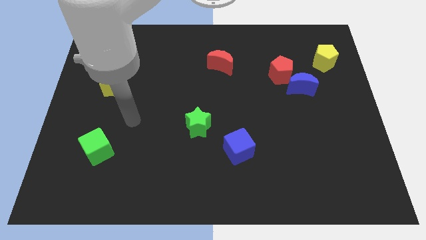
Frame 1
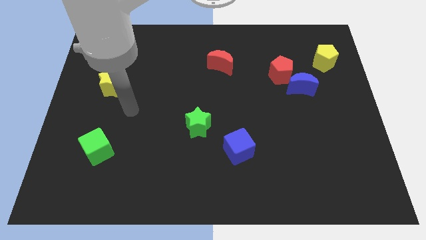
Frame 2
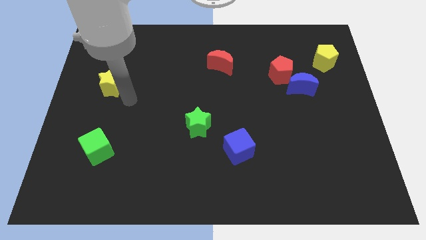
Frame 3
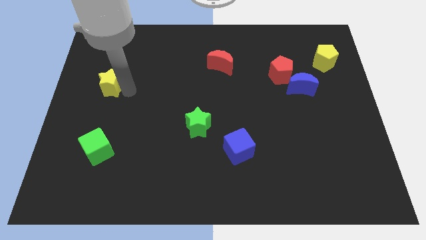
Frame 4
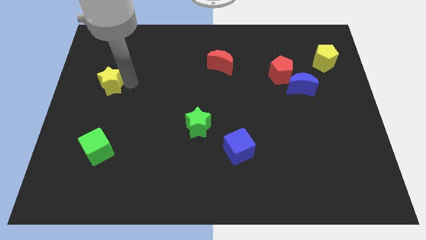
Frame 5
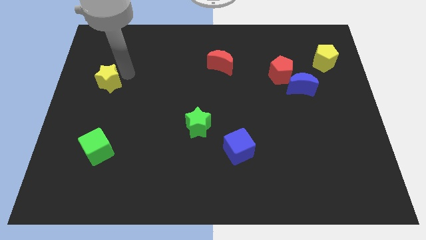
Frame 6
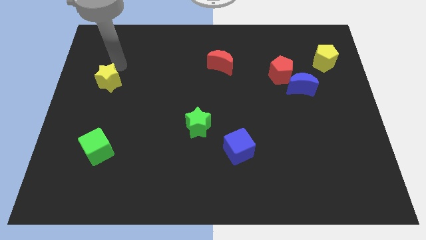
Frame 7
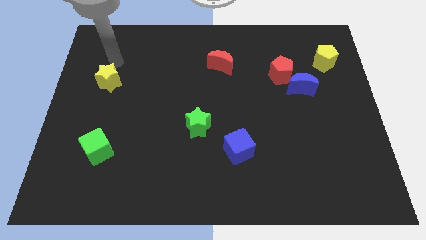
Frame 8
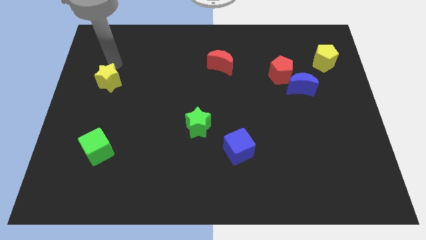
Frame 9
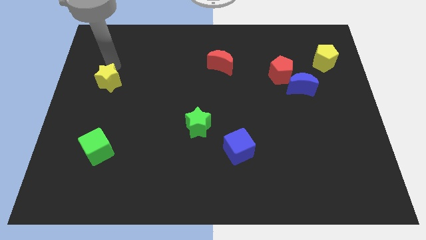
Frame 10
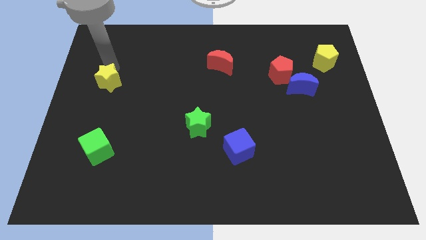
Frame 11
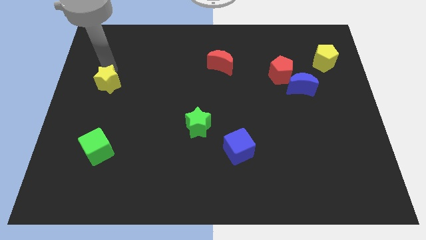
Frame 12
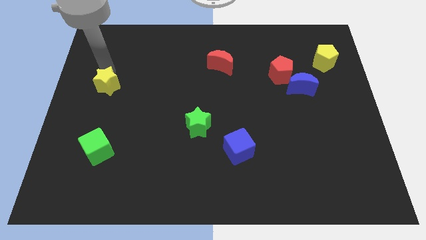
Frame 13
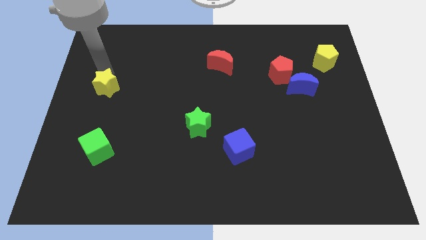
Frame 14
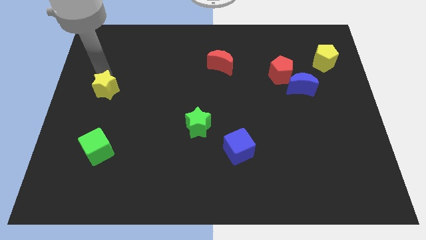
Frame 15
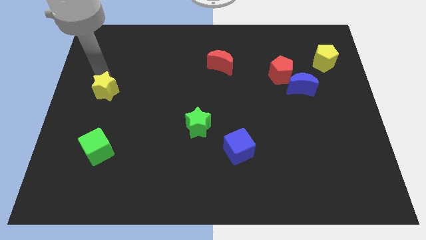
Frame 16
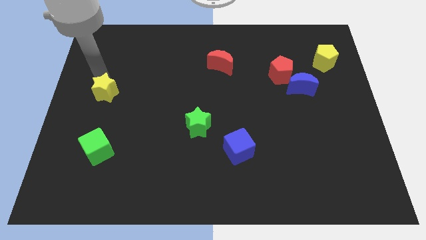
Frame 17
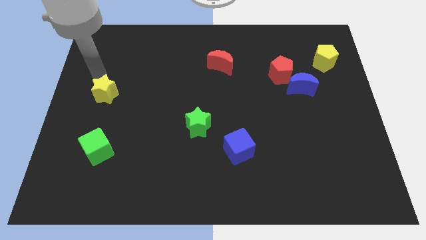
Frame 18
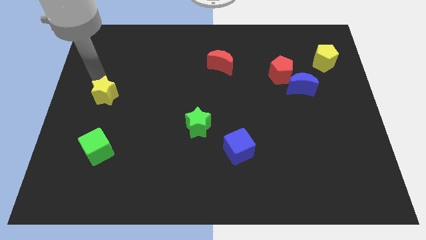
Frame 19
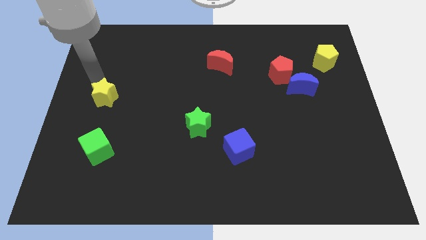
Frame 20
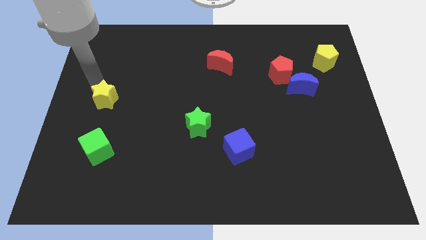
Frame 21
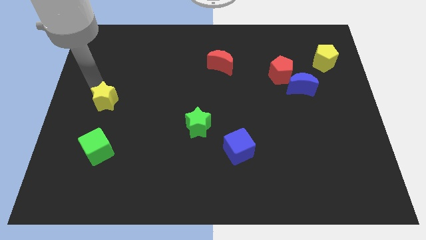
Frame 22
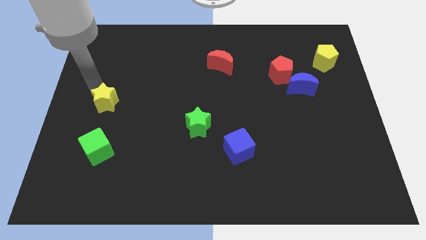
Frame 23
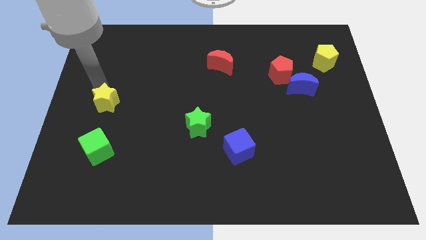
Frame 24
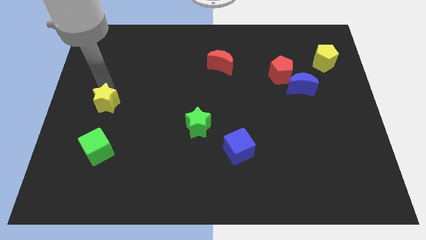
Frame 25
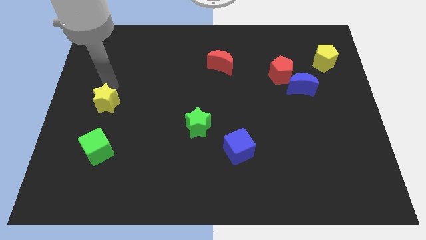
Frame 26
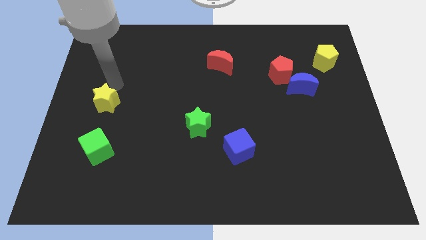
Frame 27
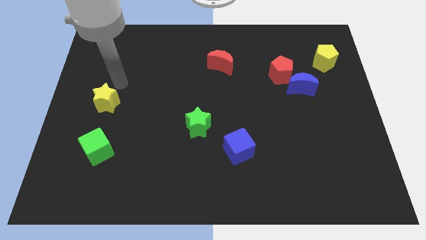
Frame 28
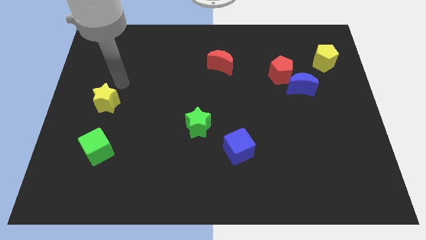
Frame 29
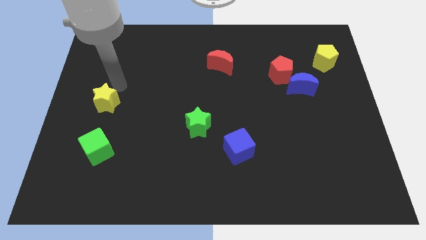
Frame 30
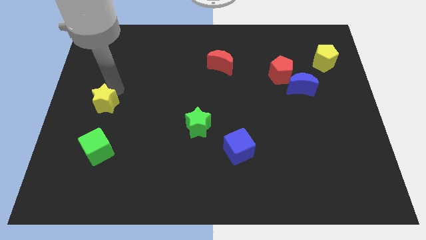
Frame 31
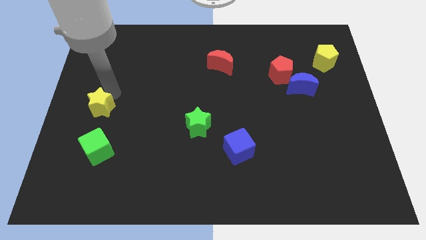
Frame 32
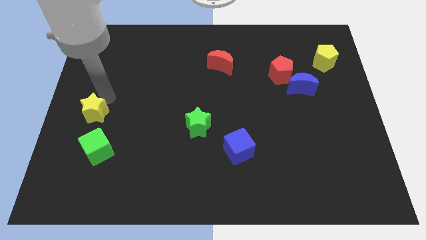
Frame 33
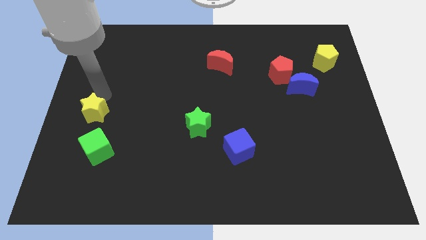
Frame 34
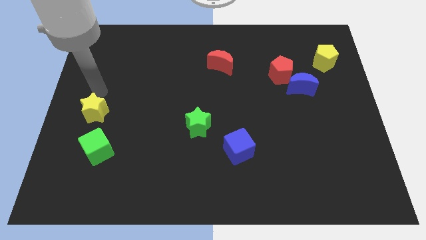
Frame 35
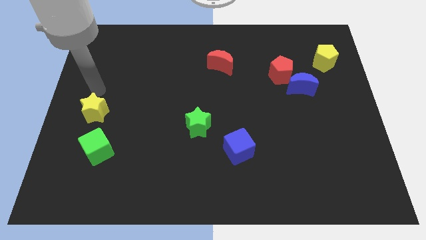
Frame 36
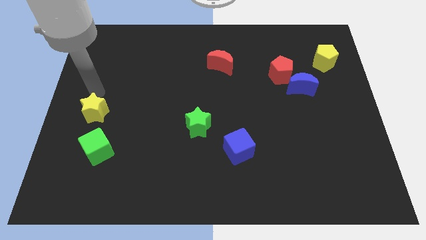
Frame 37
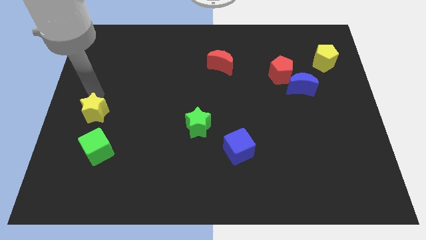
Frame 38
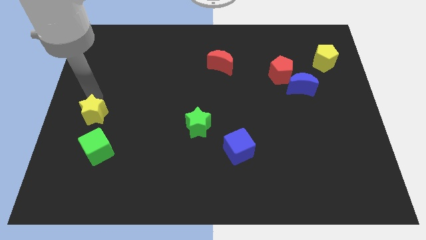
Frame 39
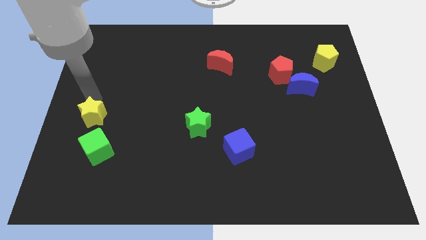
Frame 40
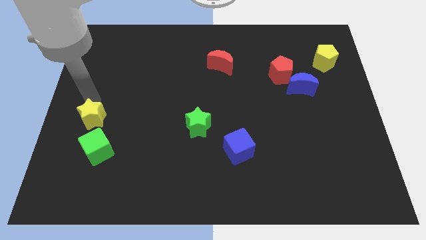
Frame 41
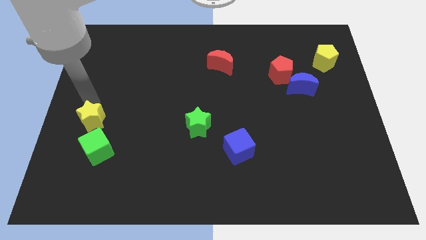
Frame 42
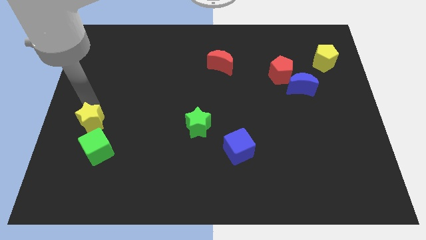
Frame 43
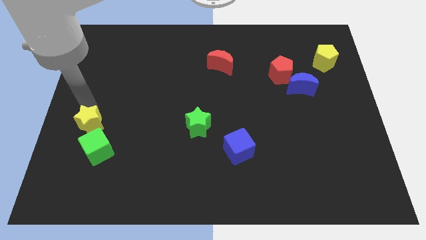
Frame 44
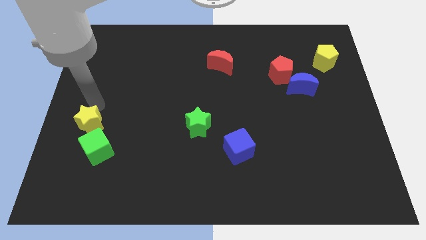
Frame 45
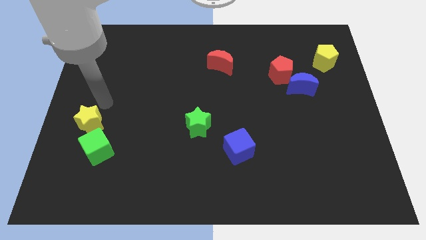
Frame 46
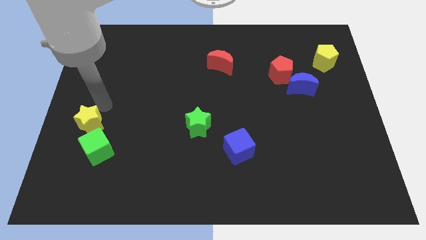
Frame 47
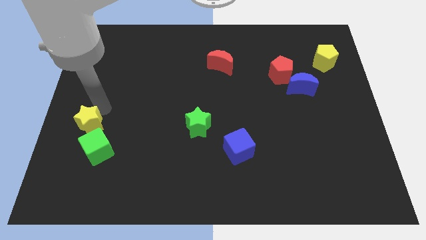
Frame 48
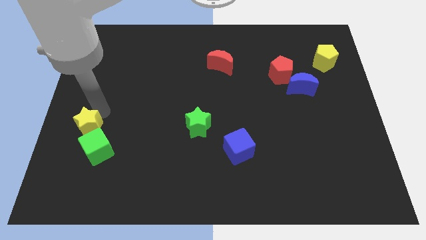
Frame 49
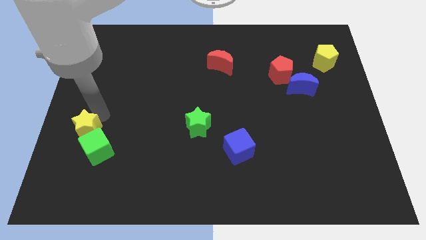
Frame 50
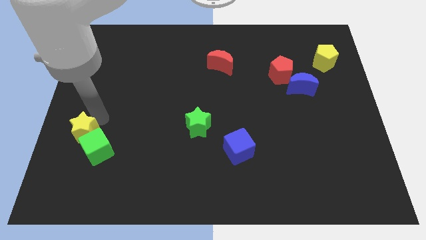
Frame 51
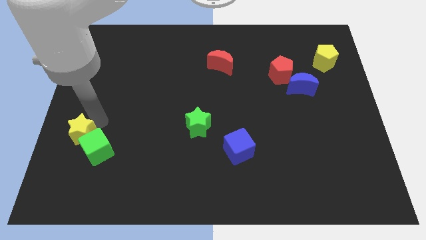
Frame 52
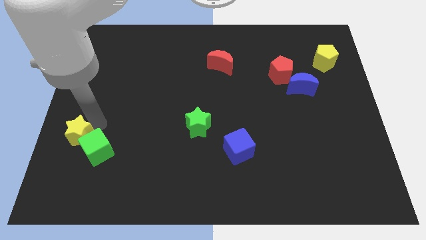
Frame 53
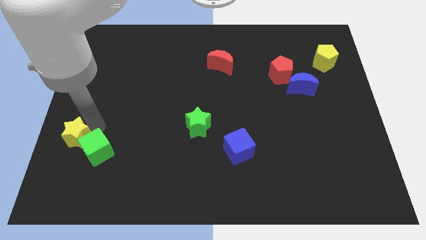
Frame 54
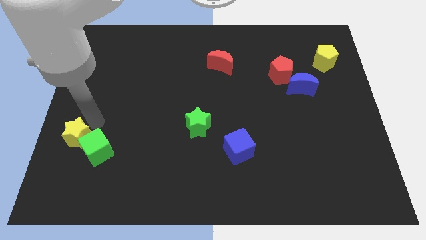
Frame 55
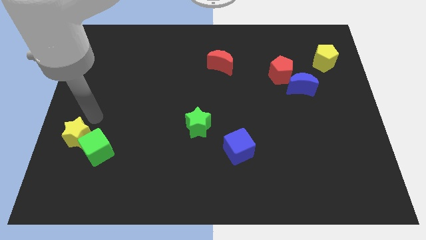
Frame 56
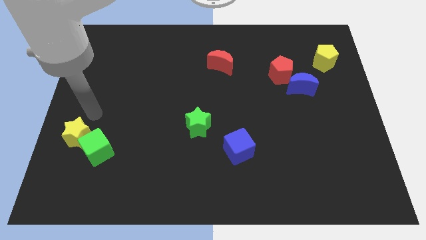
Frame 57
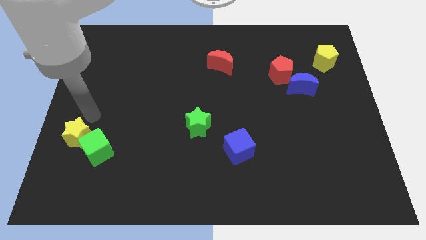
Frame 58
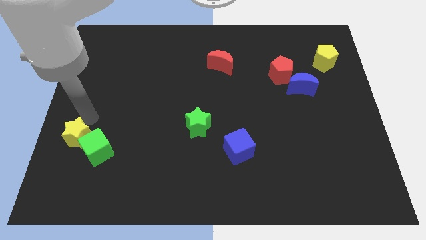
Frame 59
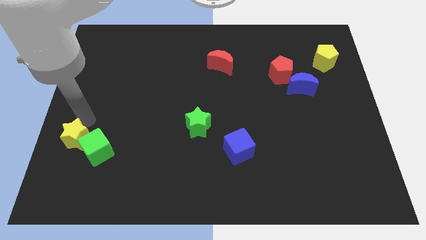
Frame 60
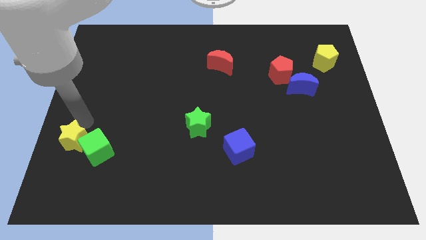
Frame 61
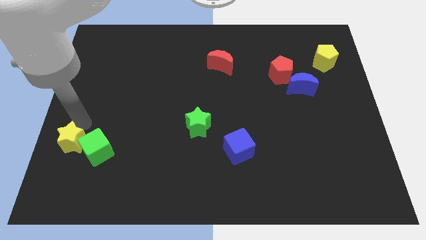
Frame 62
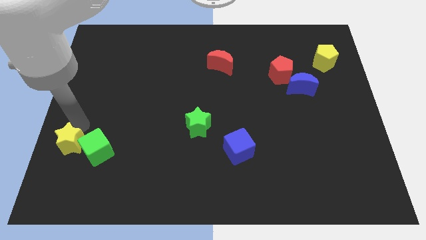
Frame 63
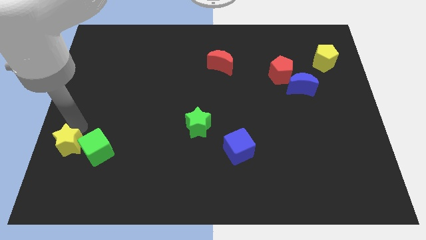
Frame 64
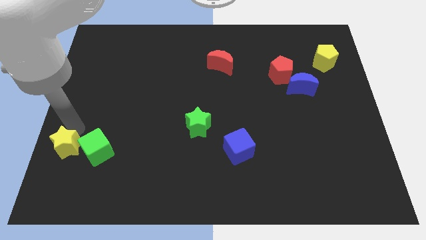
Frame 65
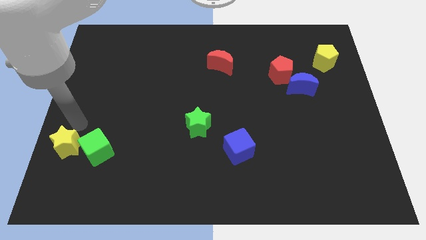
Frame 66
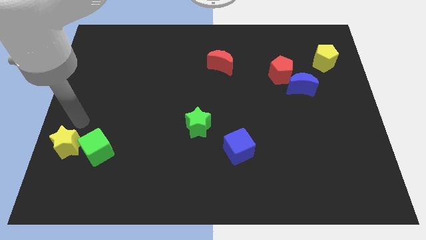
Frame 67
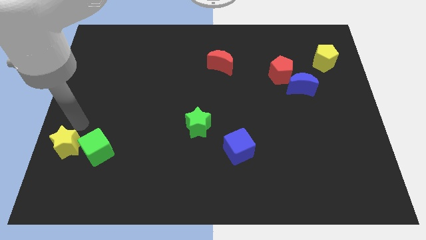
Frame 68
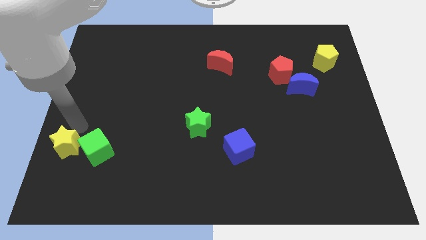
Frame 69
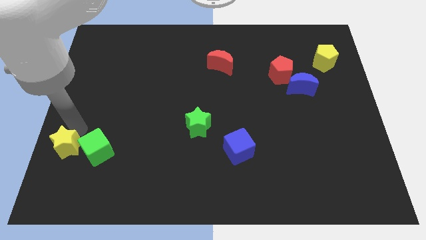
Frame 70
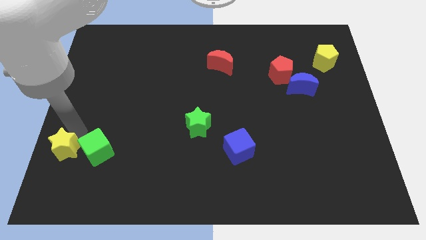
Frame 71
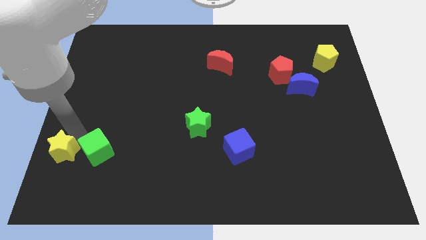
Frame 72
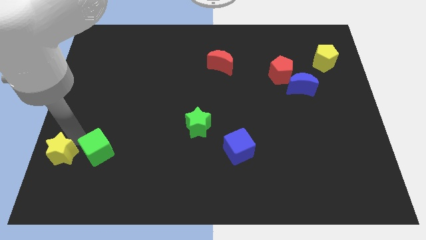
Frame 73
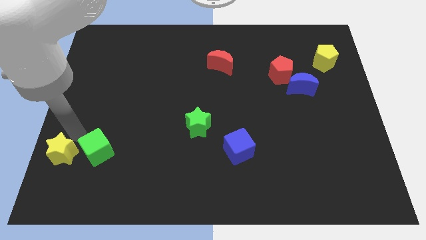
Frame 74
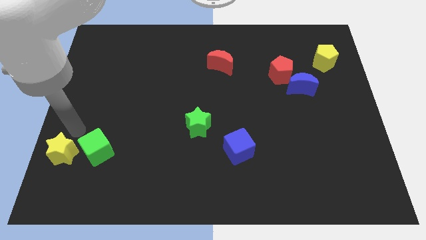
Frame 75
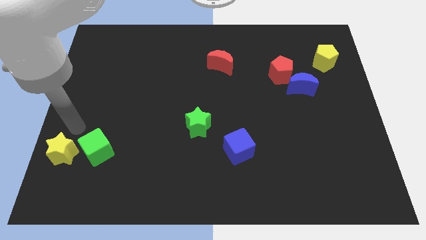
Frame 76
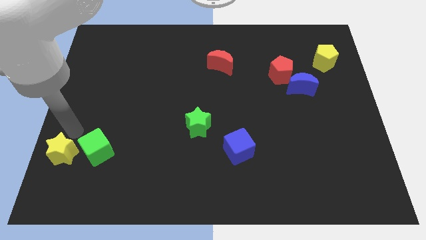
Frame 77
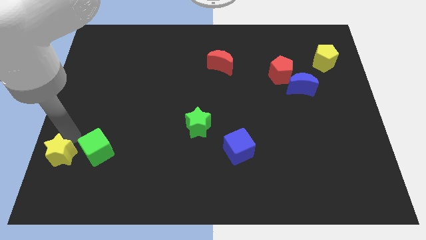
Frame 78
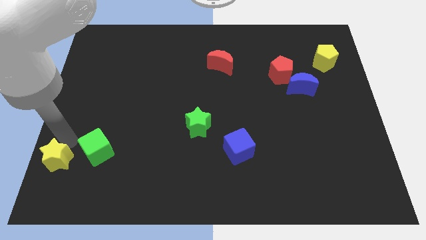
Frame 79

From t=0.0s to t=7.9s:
slide the yellow star to the lower left corner
